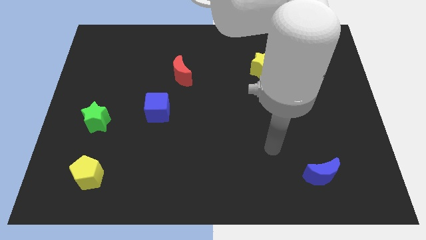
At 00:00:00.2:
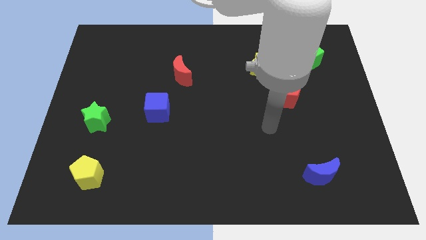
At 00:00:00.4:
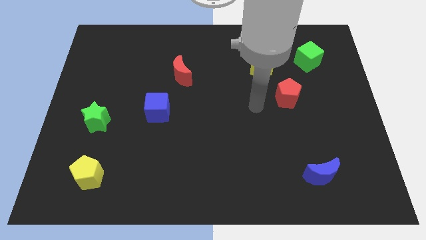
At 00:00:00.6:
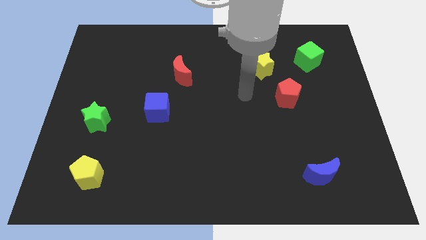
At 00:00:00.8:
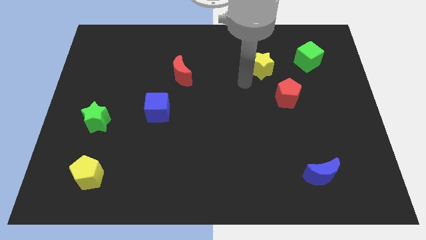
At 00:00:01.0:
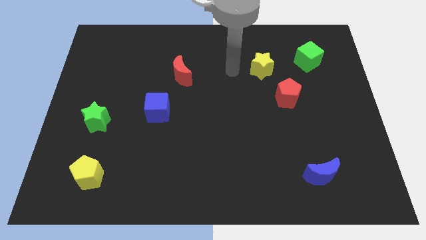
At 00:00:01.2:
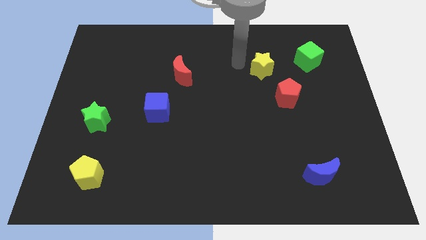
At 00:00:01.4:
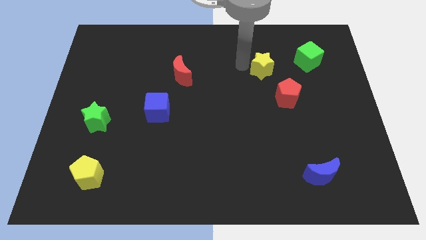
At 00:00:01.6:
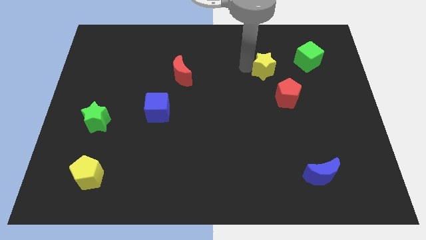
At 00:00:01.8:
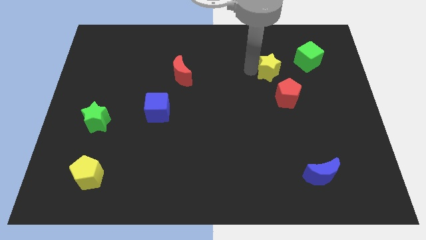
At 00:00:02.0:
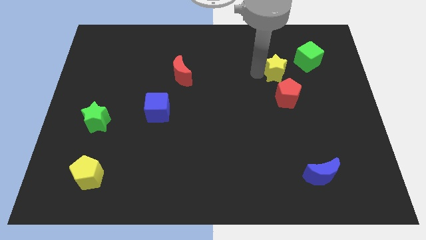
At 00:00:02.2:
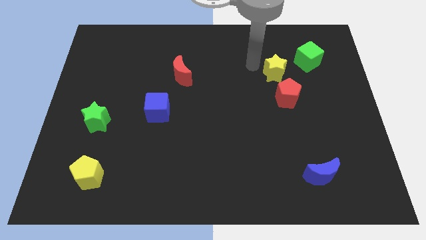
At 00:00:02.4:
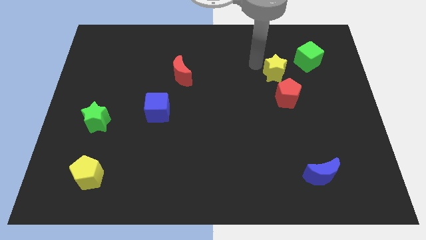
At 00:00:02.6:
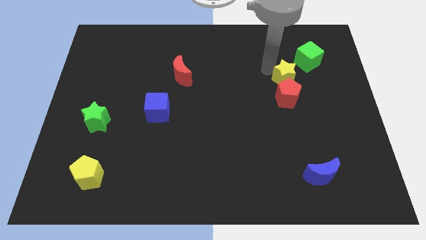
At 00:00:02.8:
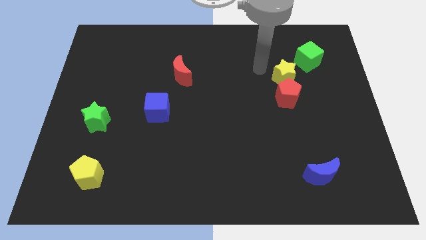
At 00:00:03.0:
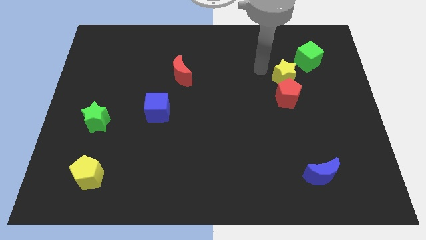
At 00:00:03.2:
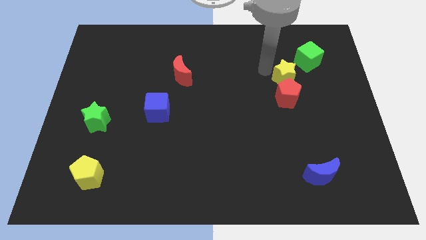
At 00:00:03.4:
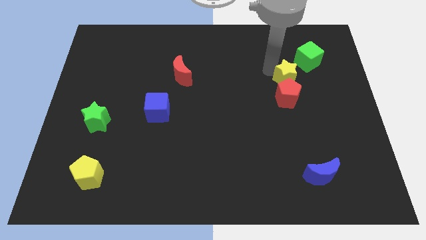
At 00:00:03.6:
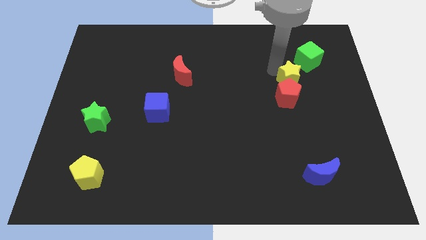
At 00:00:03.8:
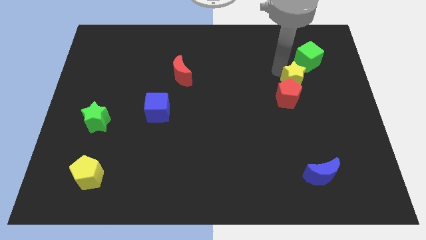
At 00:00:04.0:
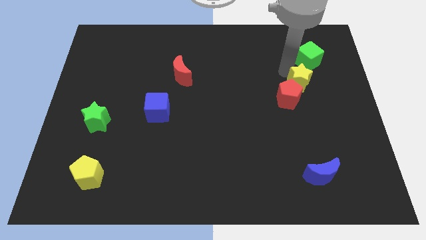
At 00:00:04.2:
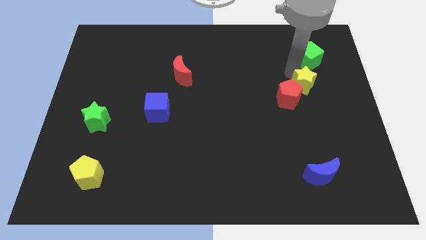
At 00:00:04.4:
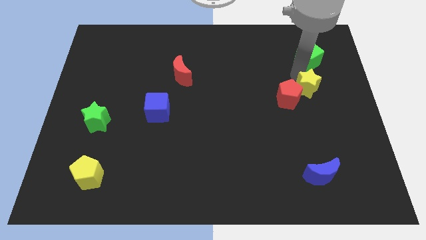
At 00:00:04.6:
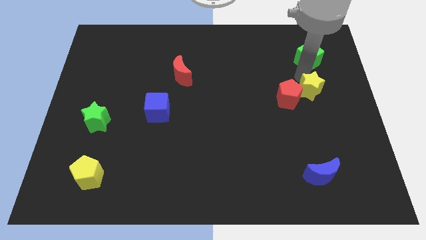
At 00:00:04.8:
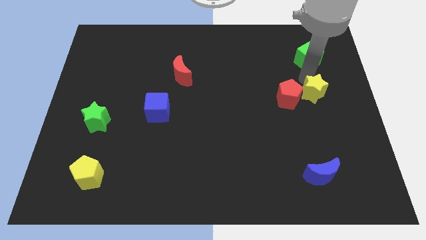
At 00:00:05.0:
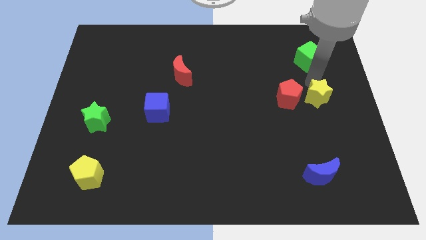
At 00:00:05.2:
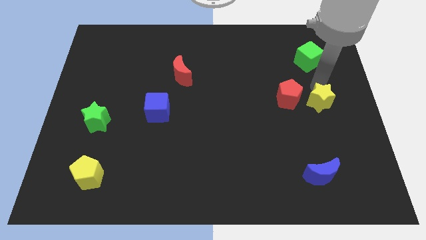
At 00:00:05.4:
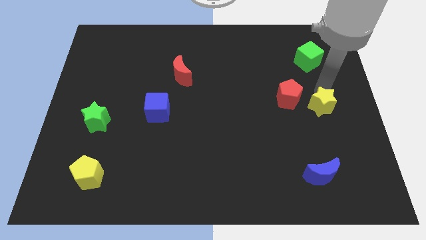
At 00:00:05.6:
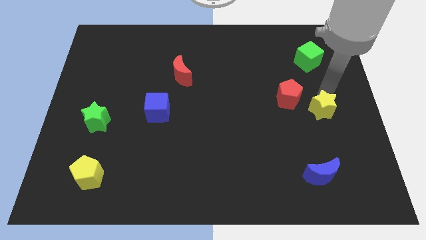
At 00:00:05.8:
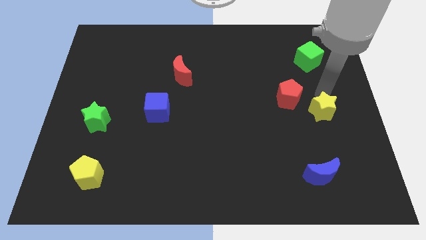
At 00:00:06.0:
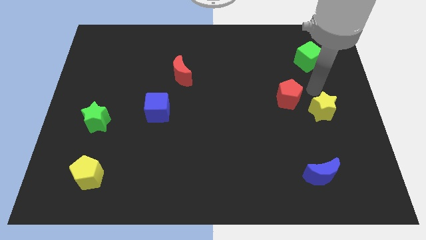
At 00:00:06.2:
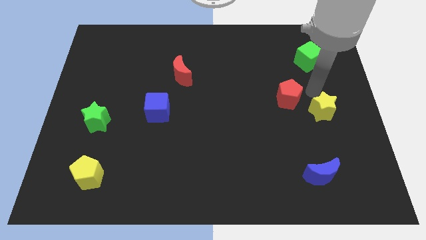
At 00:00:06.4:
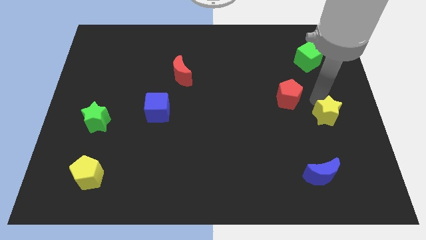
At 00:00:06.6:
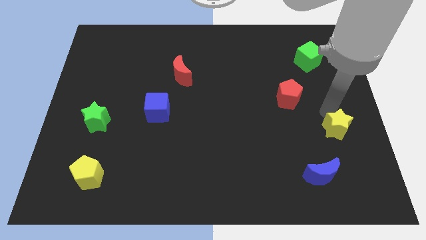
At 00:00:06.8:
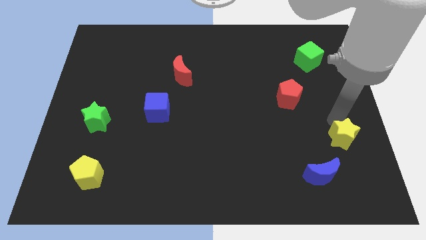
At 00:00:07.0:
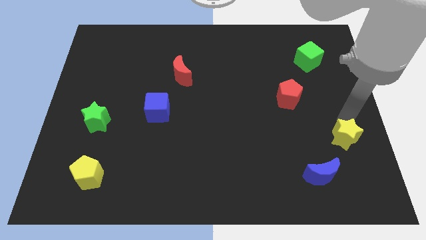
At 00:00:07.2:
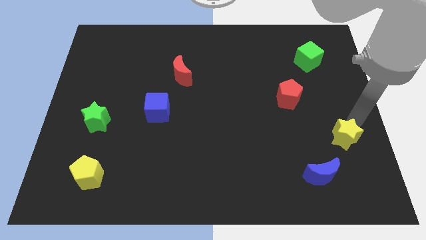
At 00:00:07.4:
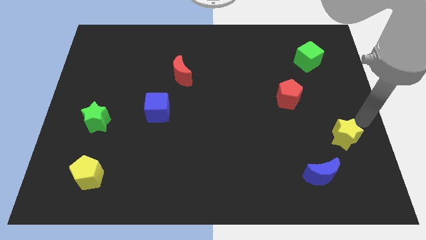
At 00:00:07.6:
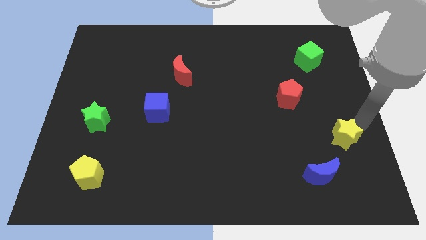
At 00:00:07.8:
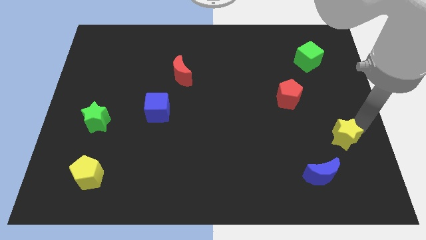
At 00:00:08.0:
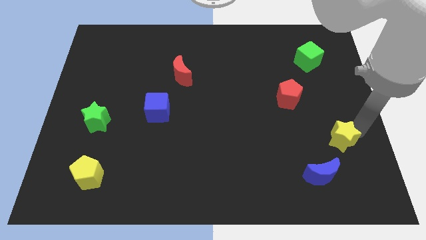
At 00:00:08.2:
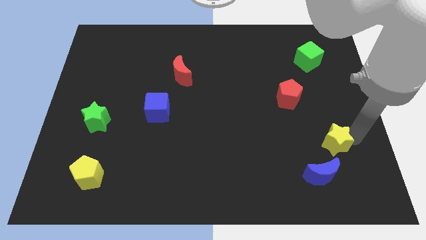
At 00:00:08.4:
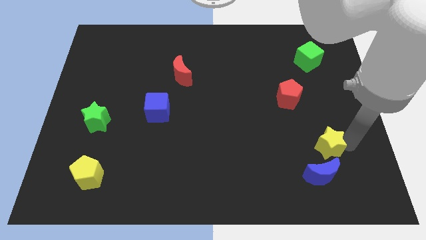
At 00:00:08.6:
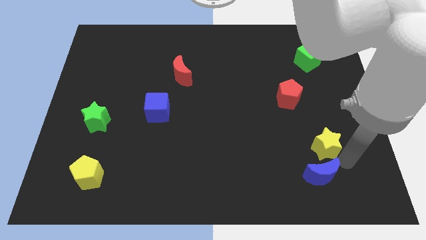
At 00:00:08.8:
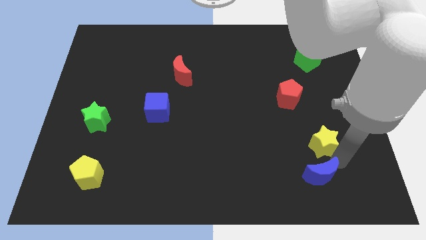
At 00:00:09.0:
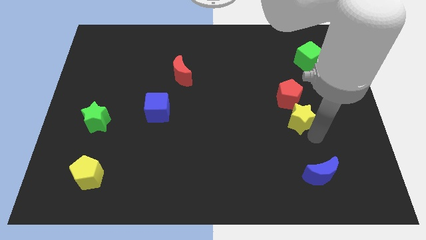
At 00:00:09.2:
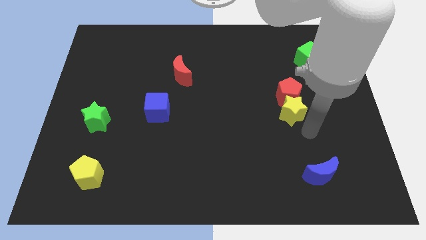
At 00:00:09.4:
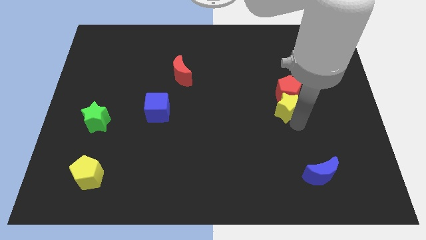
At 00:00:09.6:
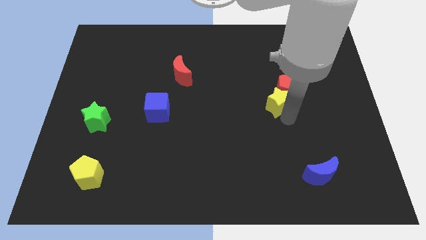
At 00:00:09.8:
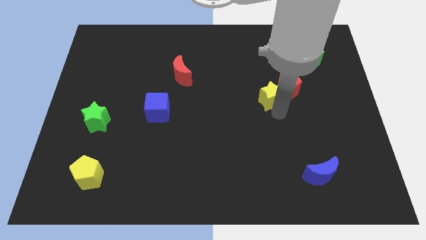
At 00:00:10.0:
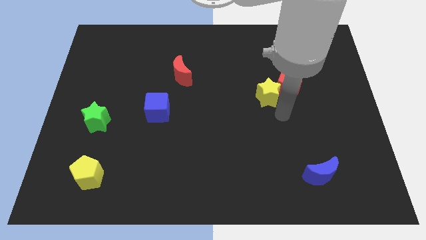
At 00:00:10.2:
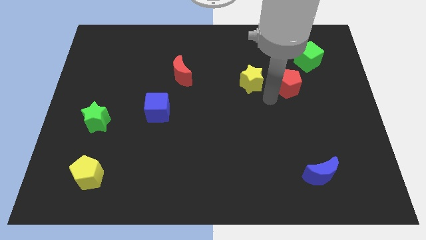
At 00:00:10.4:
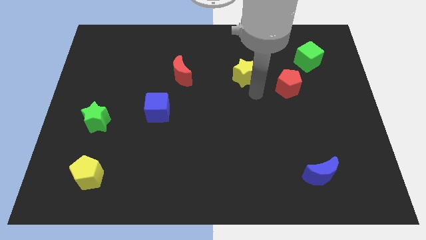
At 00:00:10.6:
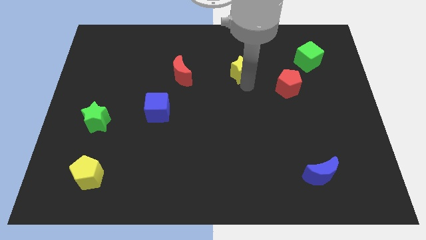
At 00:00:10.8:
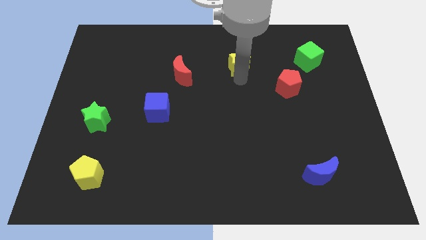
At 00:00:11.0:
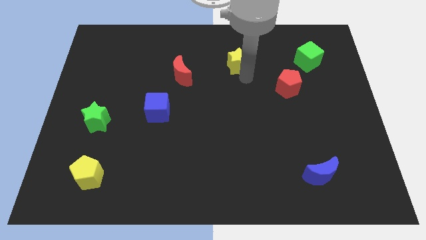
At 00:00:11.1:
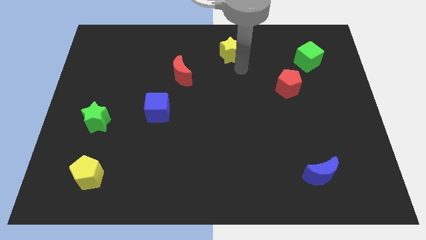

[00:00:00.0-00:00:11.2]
push the yellow star to the towards your base

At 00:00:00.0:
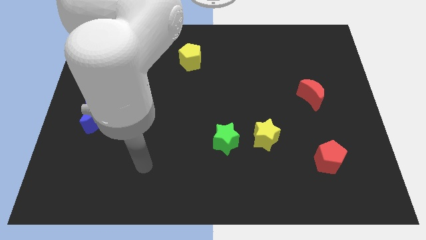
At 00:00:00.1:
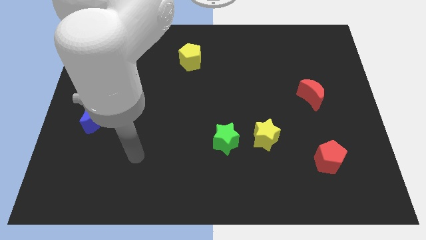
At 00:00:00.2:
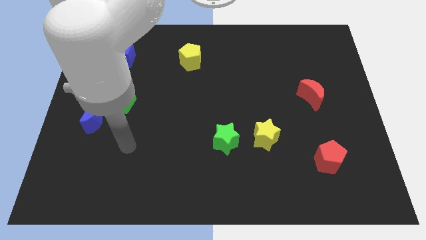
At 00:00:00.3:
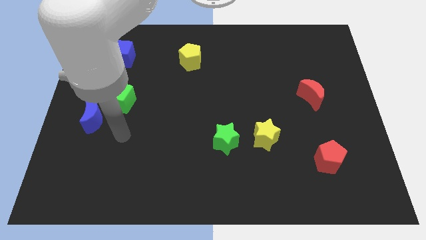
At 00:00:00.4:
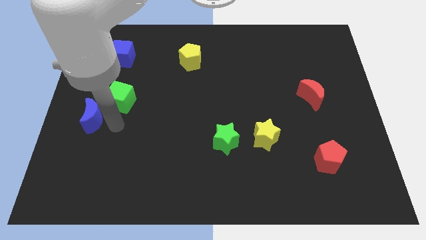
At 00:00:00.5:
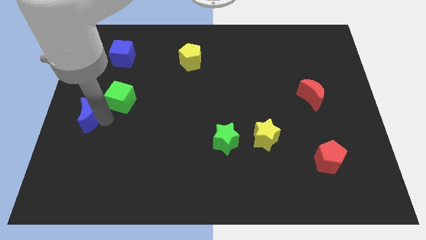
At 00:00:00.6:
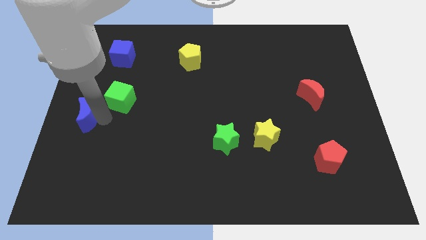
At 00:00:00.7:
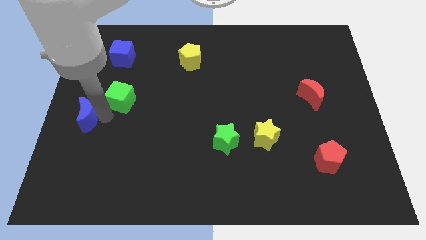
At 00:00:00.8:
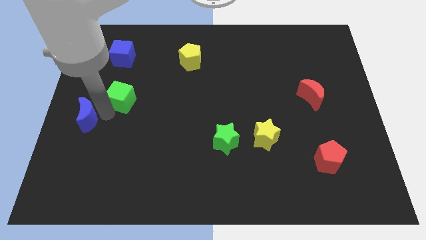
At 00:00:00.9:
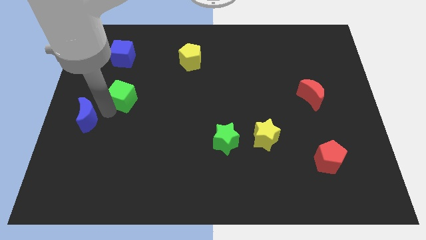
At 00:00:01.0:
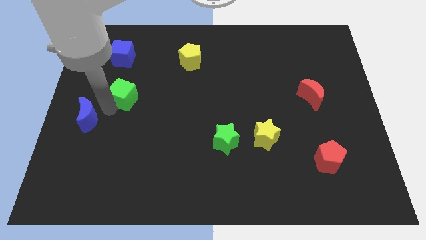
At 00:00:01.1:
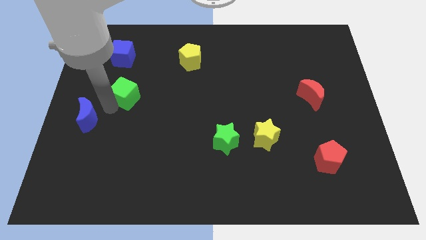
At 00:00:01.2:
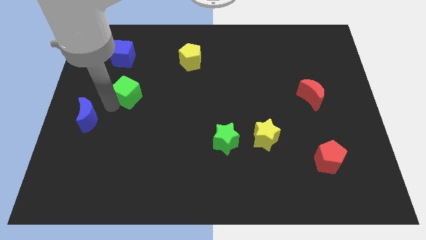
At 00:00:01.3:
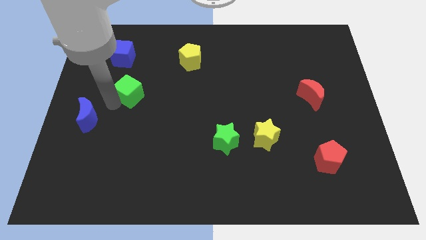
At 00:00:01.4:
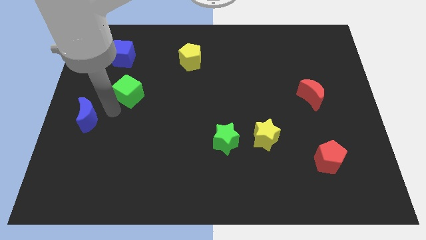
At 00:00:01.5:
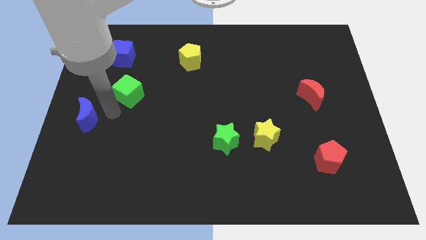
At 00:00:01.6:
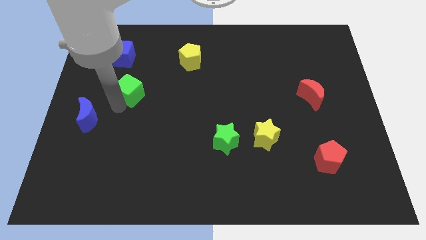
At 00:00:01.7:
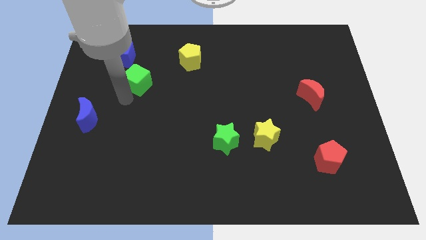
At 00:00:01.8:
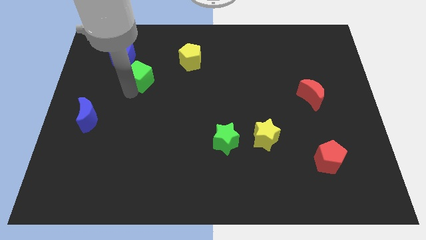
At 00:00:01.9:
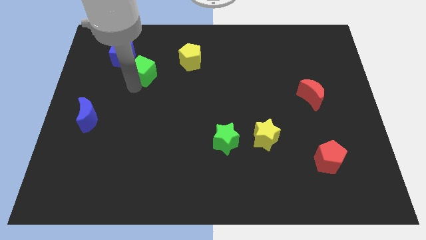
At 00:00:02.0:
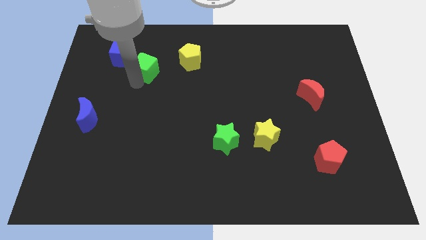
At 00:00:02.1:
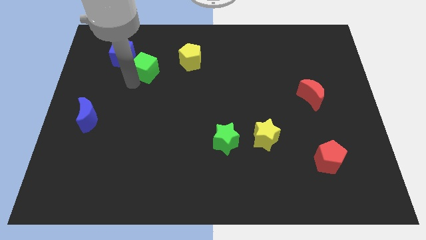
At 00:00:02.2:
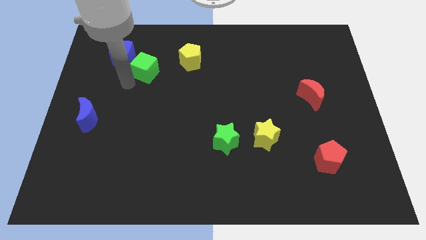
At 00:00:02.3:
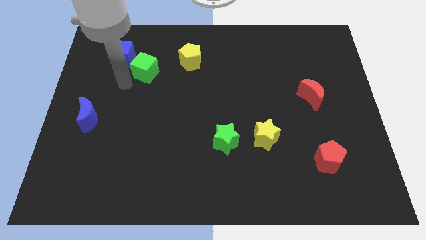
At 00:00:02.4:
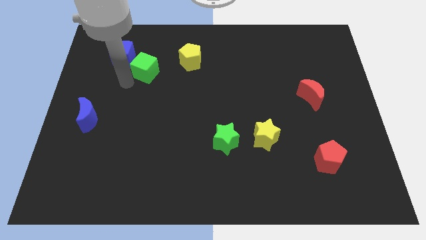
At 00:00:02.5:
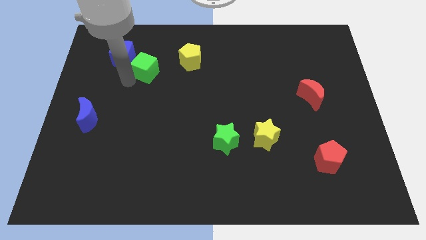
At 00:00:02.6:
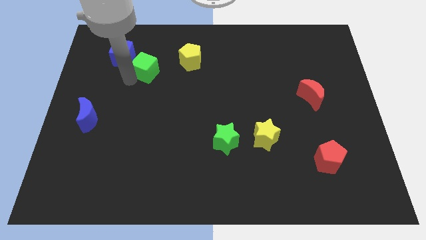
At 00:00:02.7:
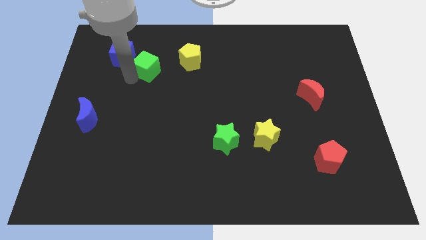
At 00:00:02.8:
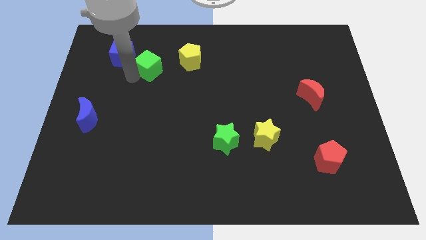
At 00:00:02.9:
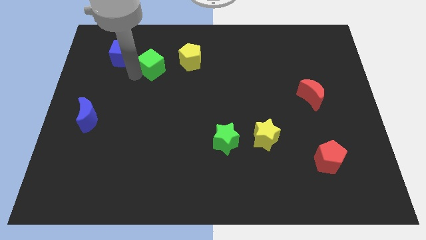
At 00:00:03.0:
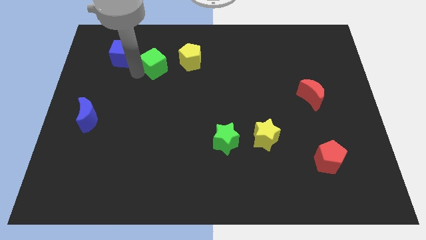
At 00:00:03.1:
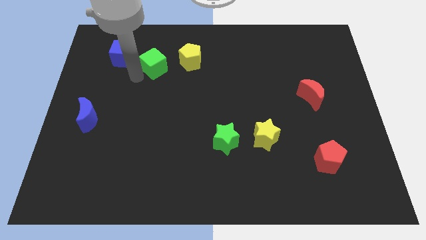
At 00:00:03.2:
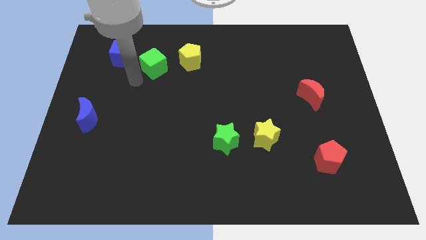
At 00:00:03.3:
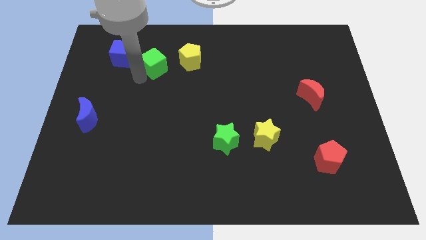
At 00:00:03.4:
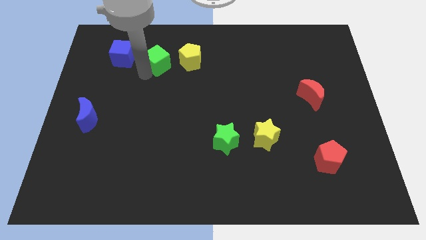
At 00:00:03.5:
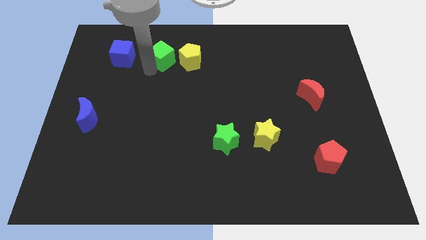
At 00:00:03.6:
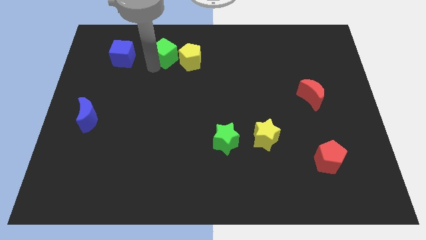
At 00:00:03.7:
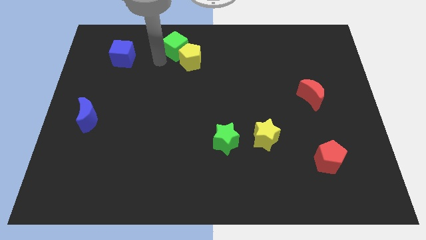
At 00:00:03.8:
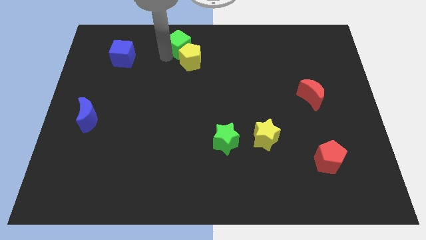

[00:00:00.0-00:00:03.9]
move the green cube to the top
